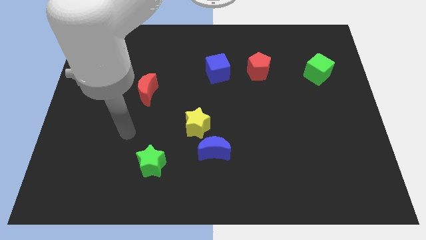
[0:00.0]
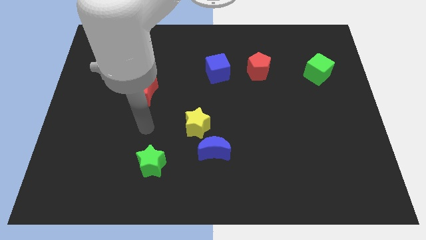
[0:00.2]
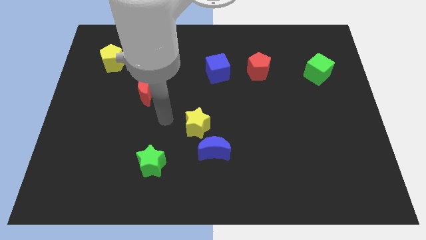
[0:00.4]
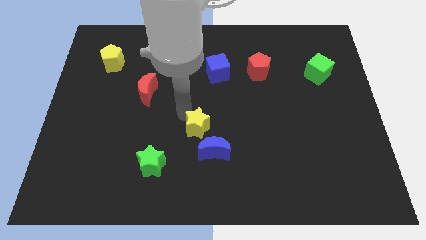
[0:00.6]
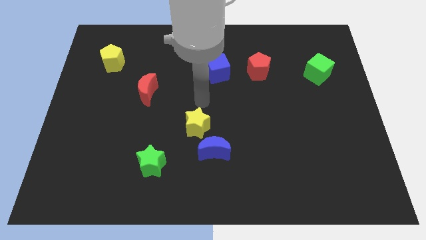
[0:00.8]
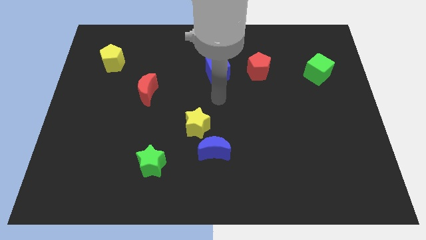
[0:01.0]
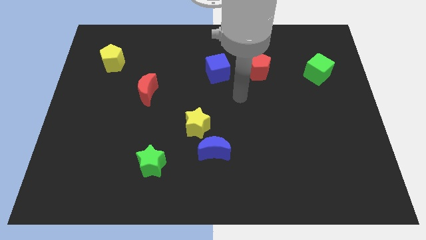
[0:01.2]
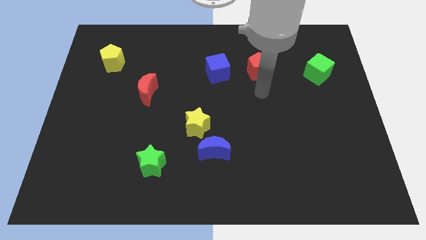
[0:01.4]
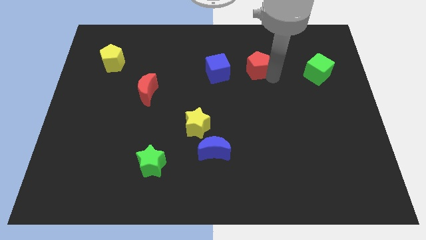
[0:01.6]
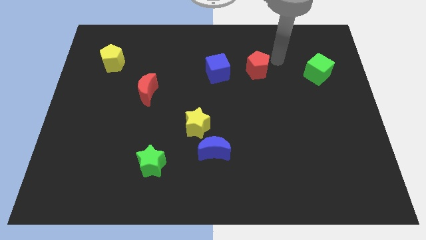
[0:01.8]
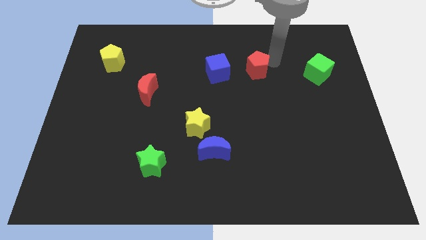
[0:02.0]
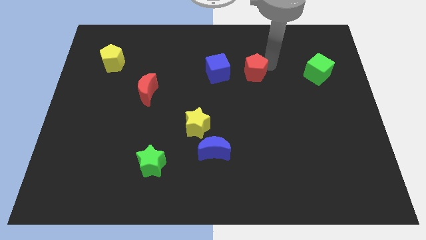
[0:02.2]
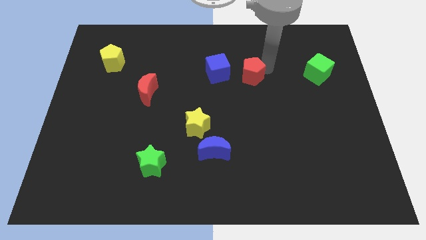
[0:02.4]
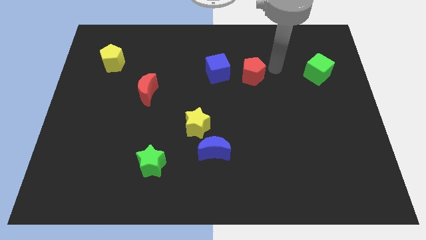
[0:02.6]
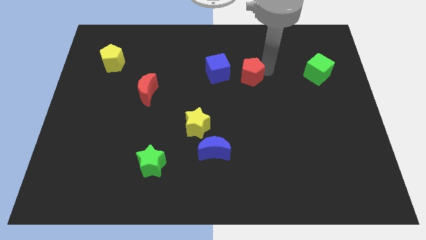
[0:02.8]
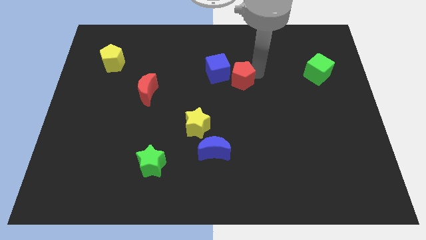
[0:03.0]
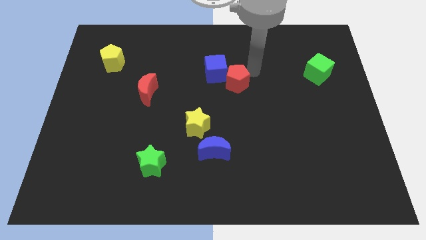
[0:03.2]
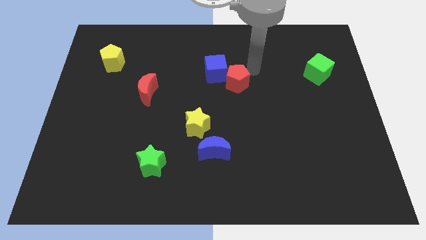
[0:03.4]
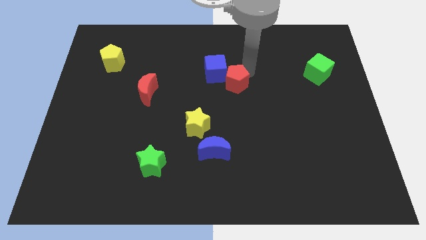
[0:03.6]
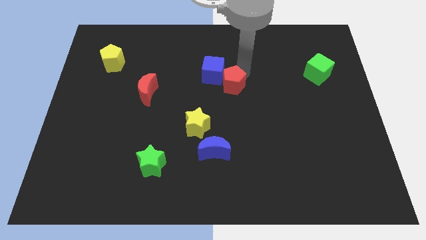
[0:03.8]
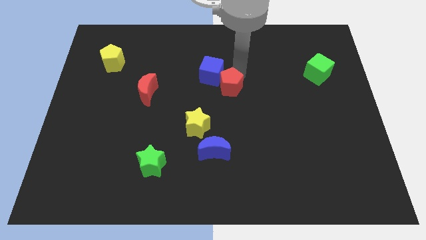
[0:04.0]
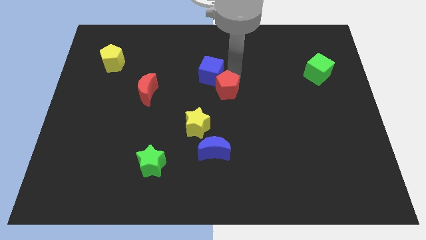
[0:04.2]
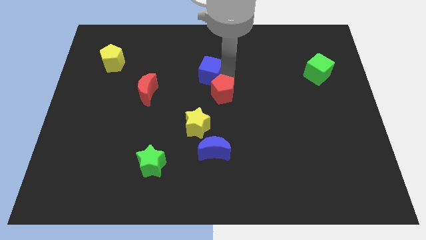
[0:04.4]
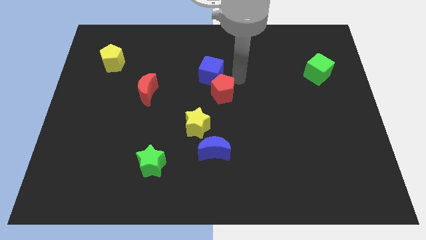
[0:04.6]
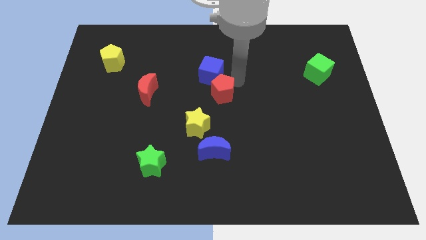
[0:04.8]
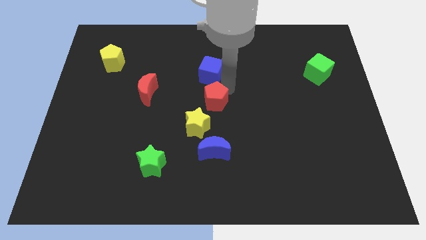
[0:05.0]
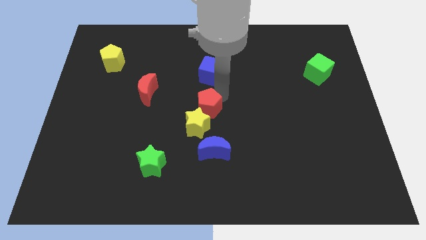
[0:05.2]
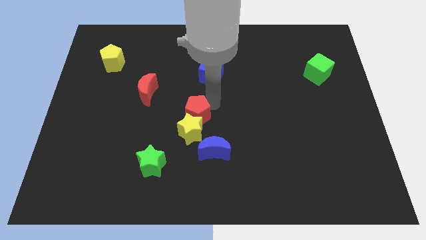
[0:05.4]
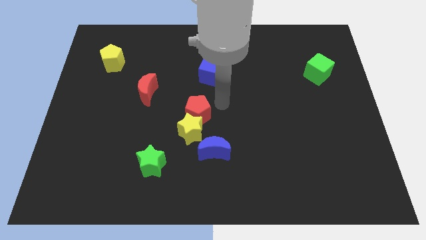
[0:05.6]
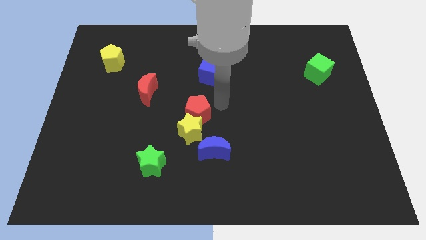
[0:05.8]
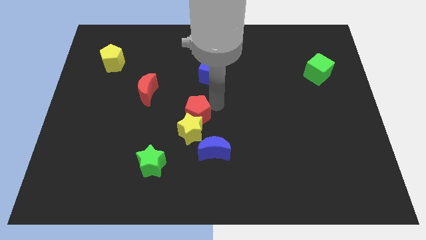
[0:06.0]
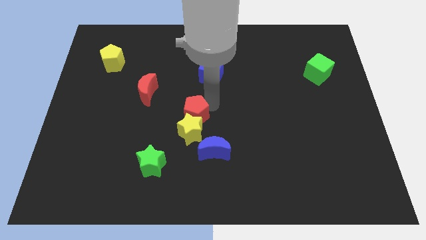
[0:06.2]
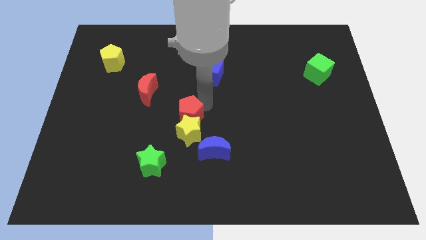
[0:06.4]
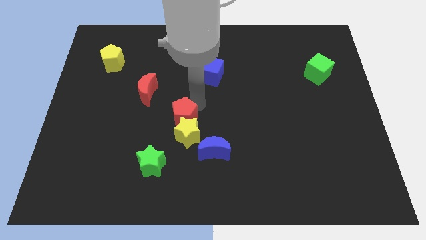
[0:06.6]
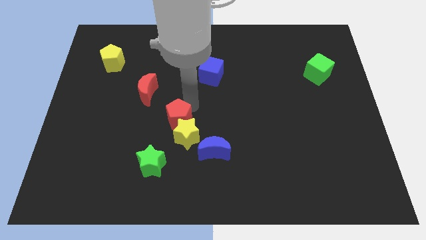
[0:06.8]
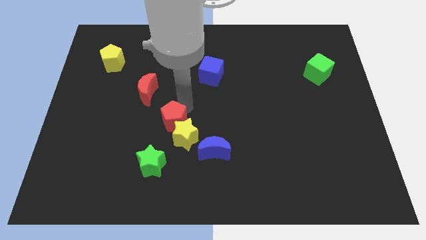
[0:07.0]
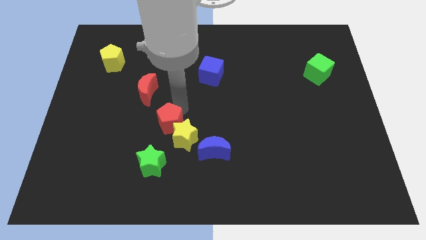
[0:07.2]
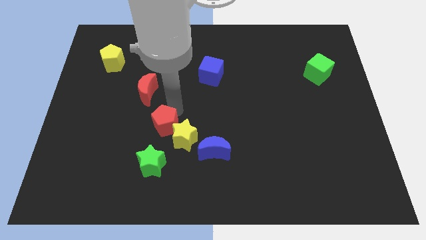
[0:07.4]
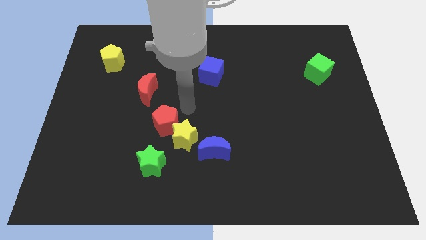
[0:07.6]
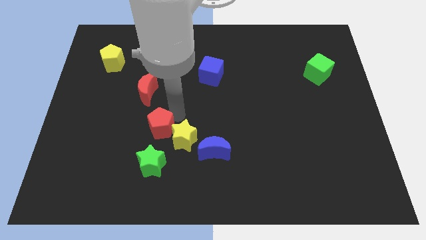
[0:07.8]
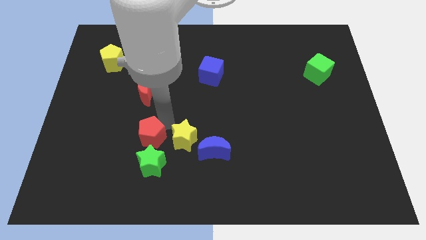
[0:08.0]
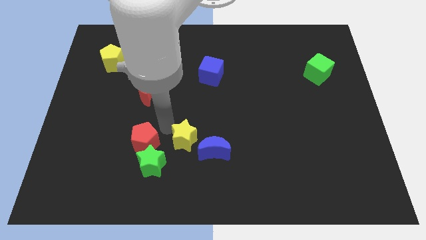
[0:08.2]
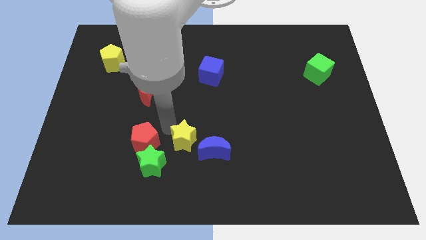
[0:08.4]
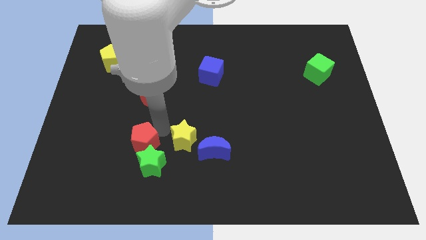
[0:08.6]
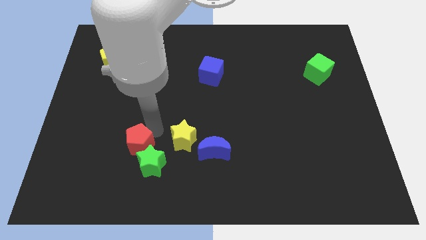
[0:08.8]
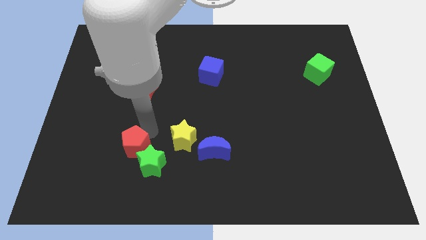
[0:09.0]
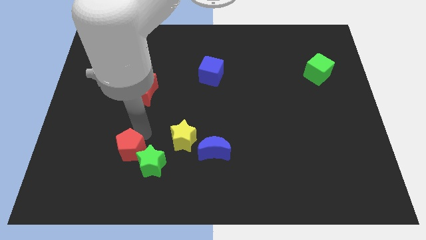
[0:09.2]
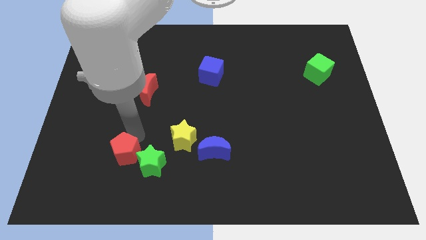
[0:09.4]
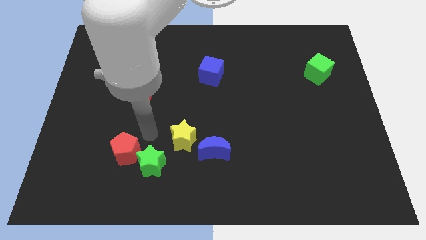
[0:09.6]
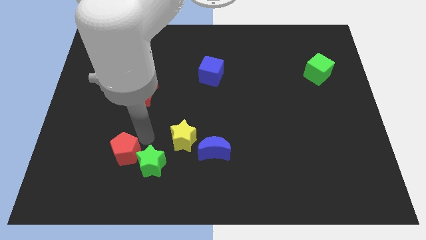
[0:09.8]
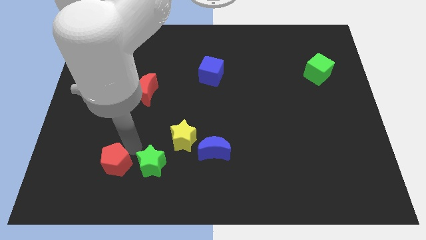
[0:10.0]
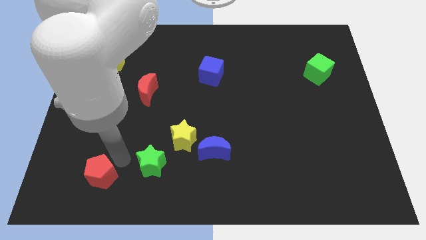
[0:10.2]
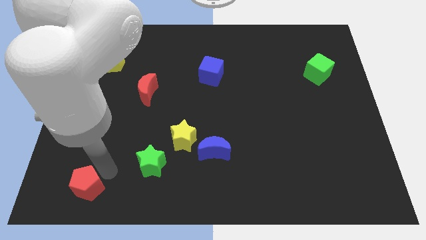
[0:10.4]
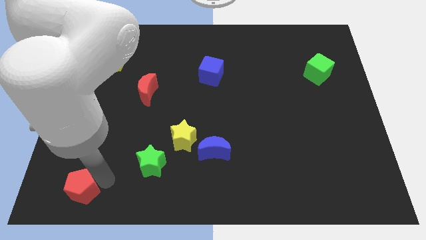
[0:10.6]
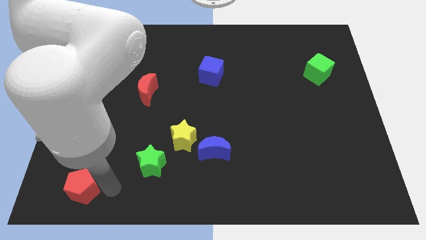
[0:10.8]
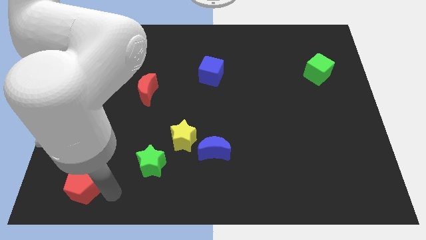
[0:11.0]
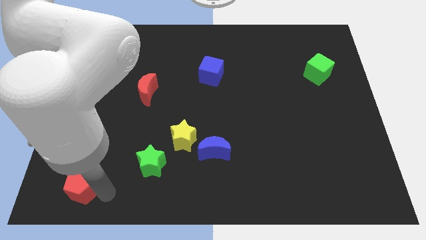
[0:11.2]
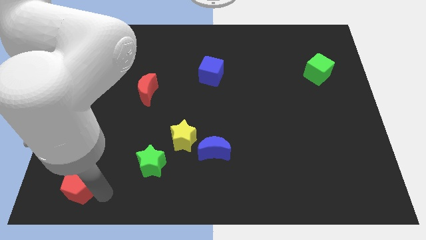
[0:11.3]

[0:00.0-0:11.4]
push the red pentagon to the bottom left
